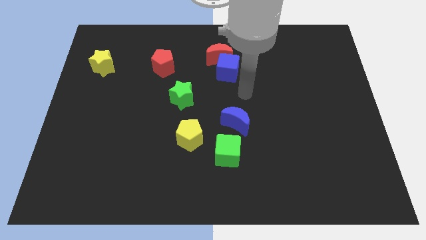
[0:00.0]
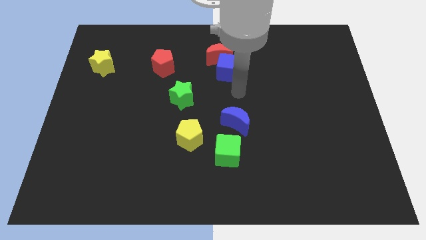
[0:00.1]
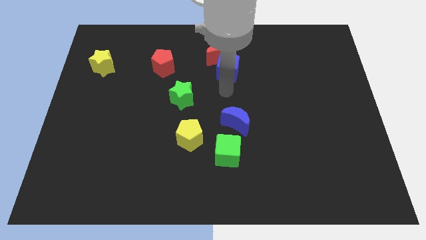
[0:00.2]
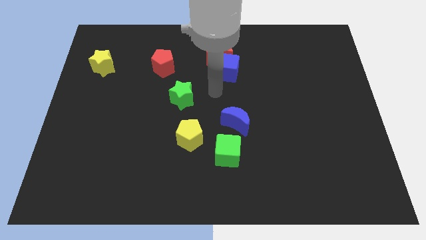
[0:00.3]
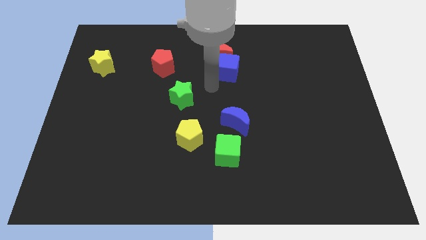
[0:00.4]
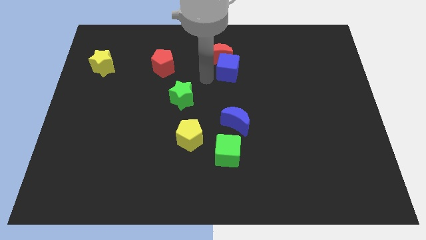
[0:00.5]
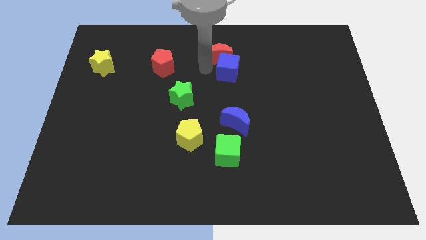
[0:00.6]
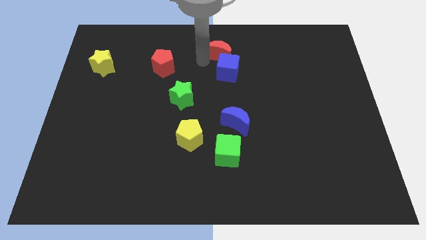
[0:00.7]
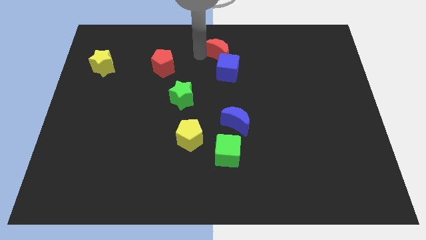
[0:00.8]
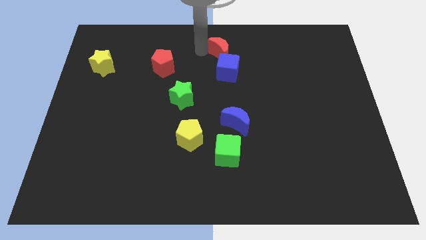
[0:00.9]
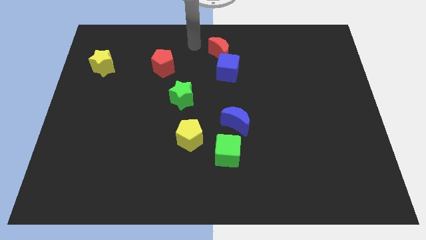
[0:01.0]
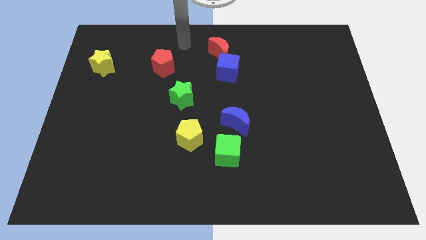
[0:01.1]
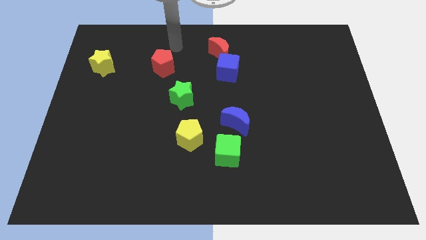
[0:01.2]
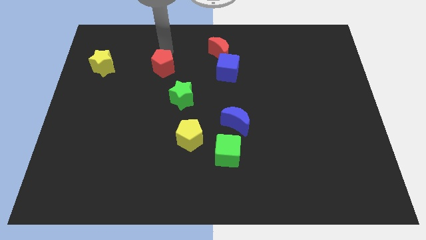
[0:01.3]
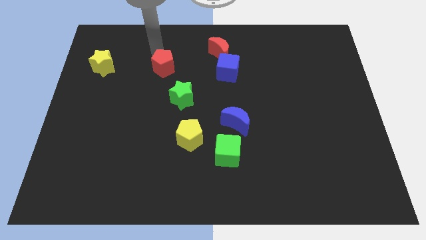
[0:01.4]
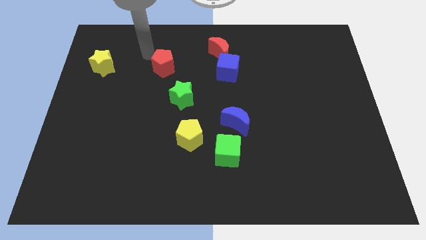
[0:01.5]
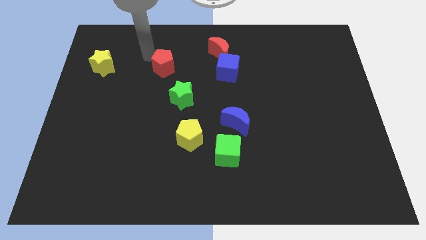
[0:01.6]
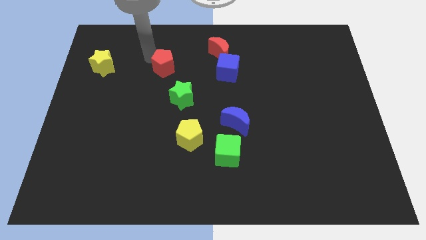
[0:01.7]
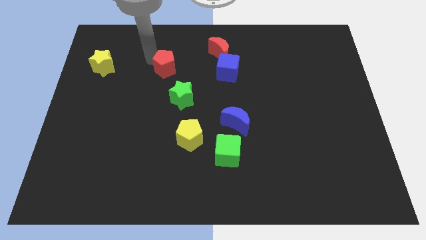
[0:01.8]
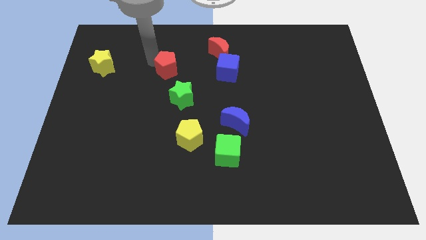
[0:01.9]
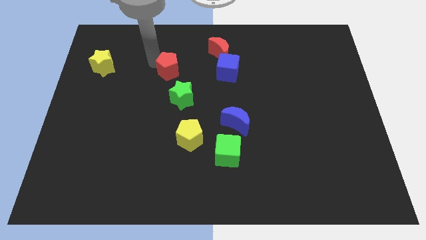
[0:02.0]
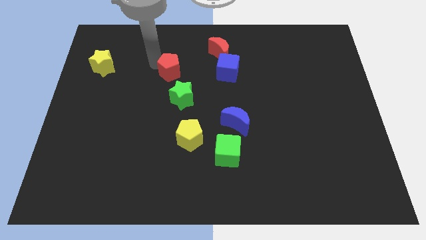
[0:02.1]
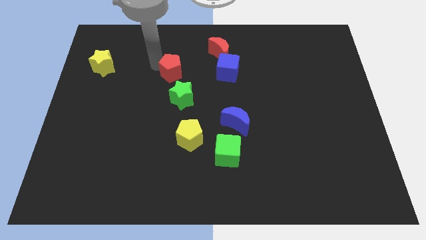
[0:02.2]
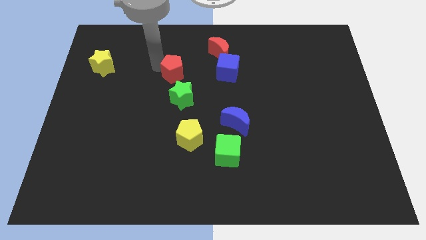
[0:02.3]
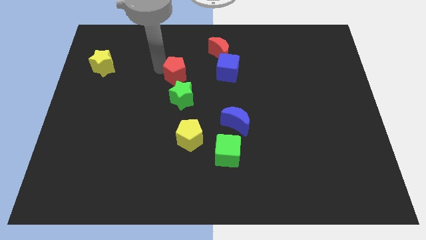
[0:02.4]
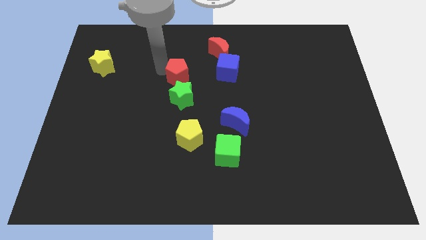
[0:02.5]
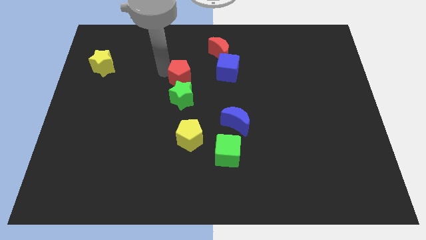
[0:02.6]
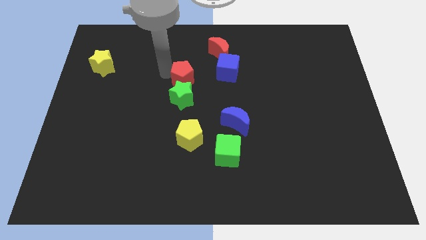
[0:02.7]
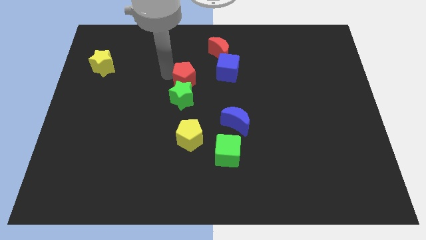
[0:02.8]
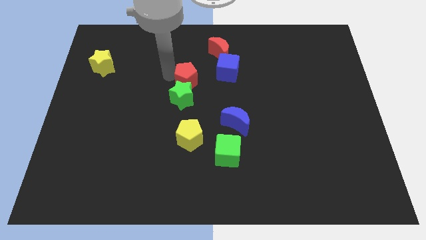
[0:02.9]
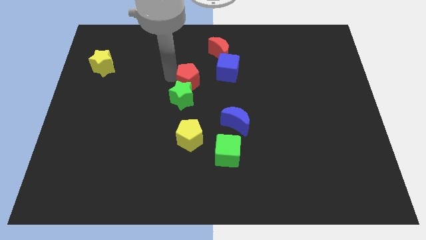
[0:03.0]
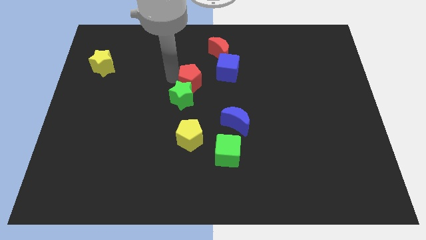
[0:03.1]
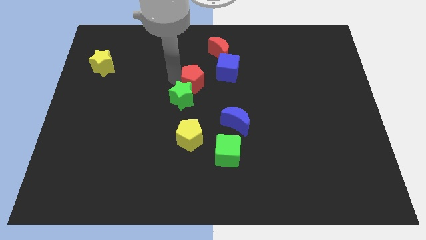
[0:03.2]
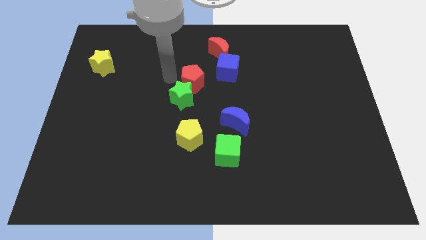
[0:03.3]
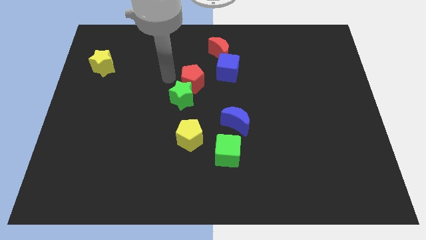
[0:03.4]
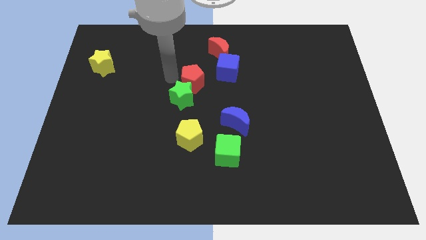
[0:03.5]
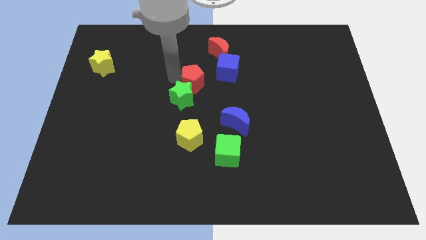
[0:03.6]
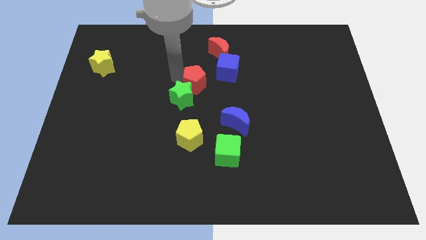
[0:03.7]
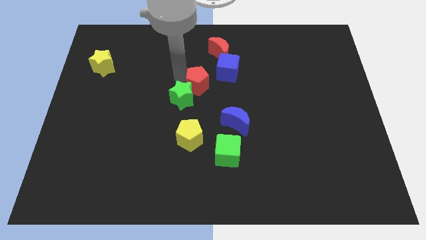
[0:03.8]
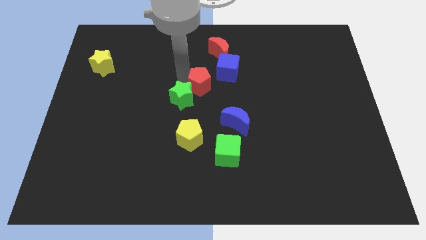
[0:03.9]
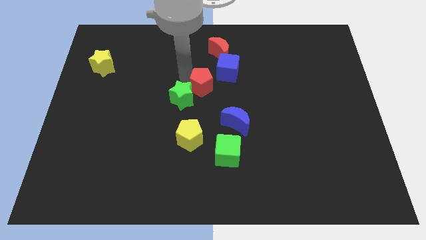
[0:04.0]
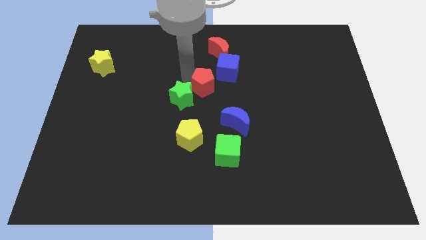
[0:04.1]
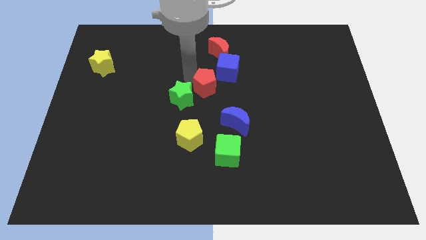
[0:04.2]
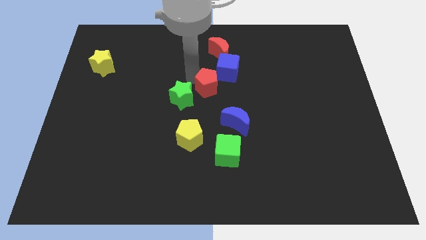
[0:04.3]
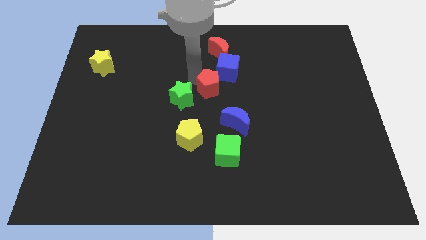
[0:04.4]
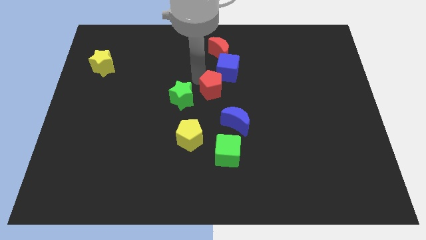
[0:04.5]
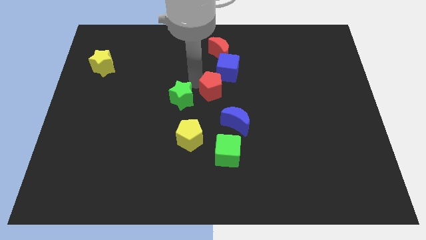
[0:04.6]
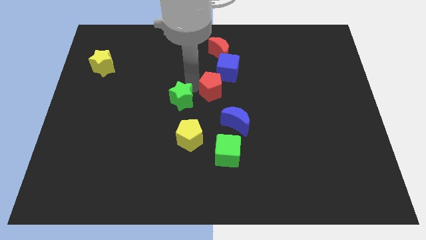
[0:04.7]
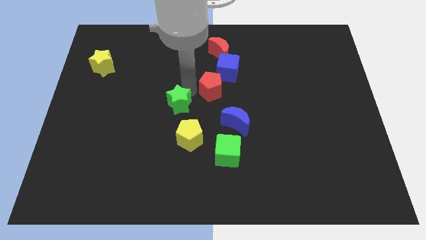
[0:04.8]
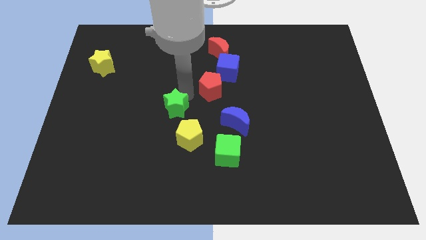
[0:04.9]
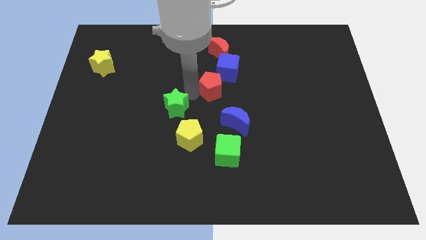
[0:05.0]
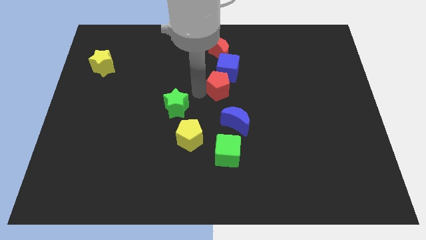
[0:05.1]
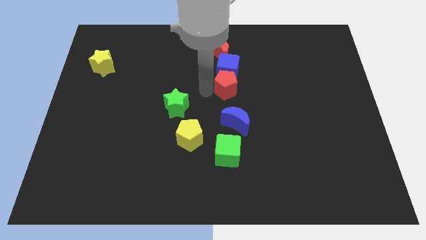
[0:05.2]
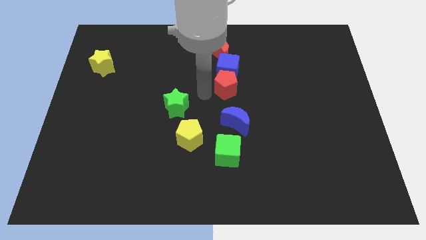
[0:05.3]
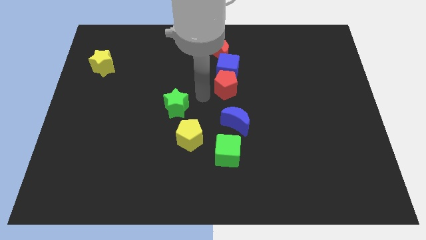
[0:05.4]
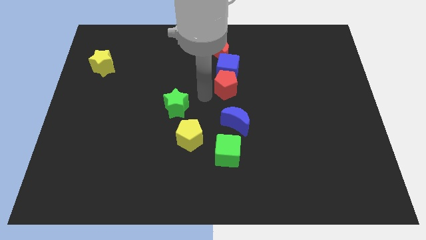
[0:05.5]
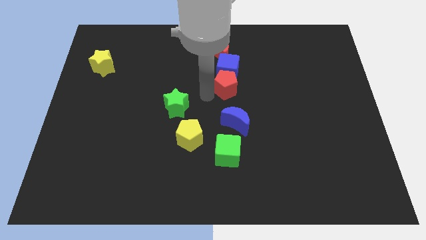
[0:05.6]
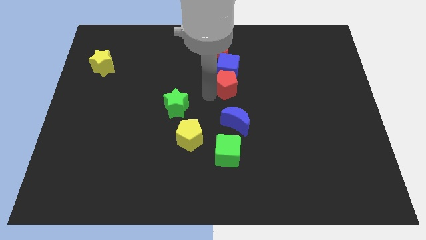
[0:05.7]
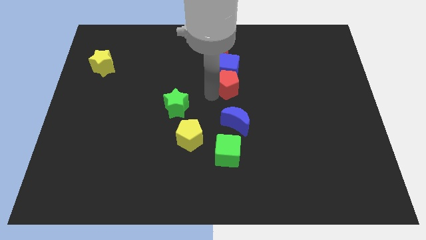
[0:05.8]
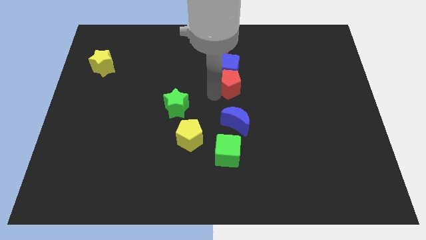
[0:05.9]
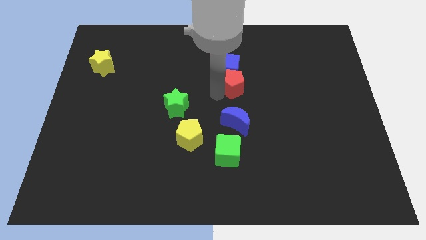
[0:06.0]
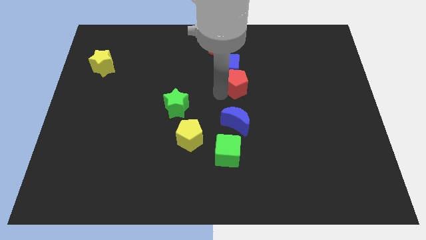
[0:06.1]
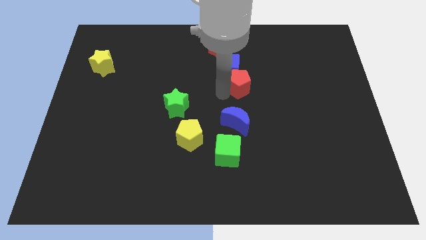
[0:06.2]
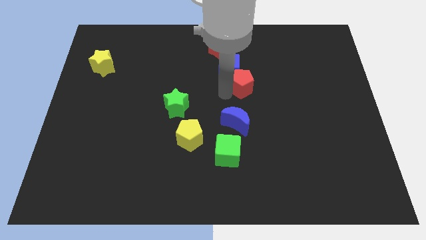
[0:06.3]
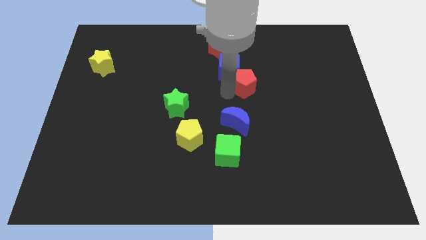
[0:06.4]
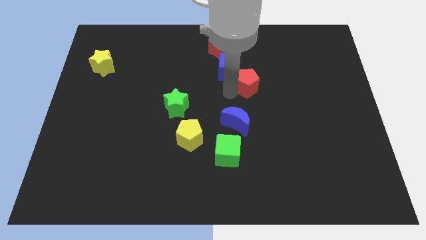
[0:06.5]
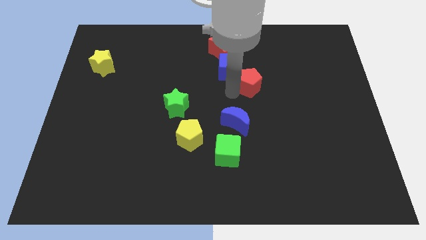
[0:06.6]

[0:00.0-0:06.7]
push the red pentagon right

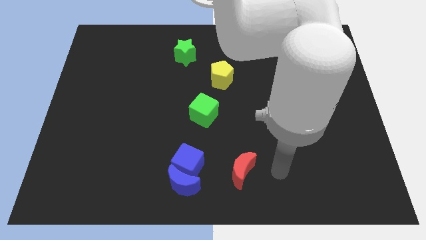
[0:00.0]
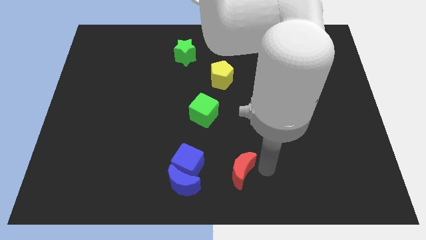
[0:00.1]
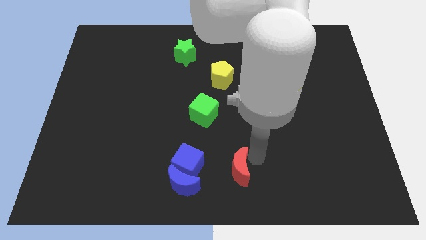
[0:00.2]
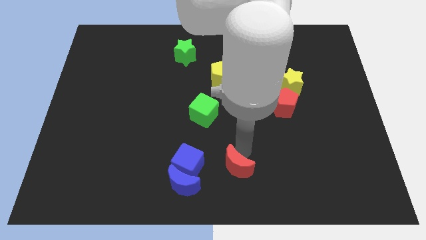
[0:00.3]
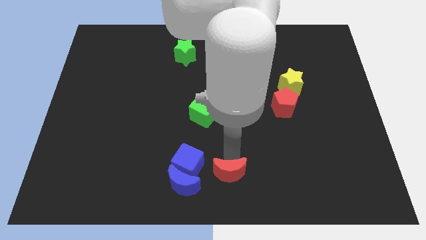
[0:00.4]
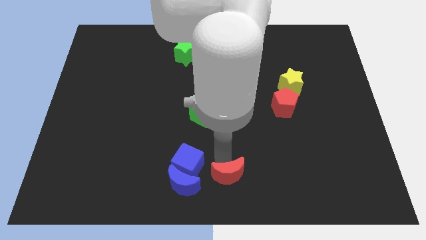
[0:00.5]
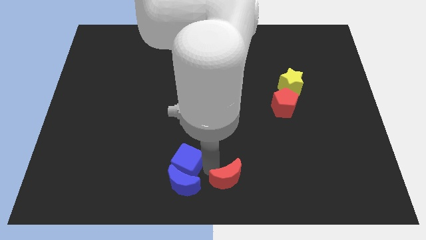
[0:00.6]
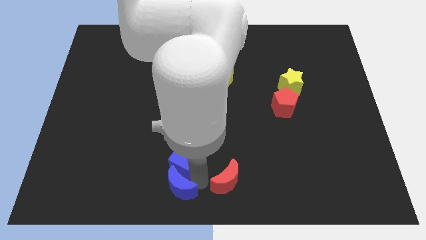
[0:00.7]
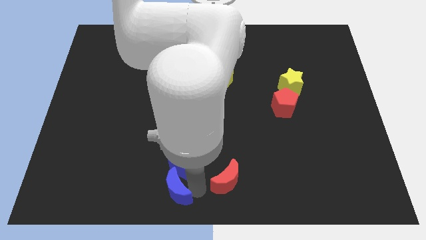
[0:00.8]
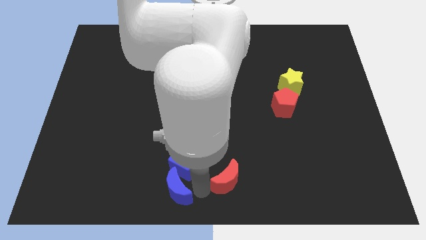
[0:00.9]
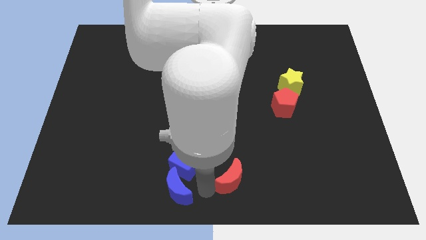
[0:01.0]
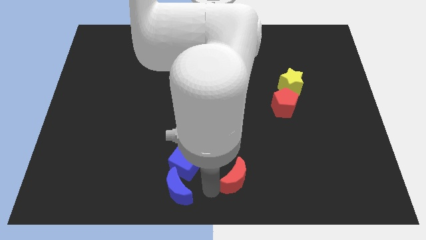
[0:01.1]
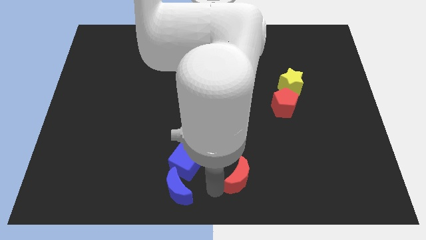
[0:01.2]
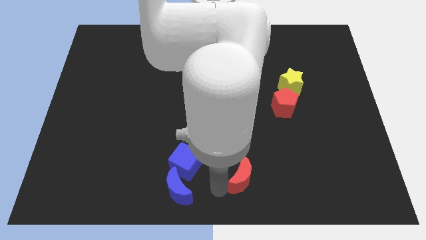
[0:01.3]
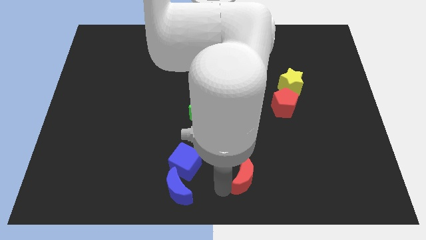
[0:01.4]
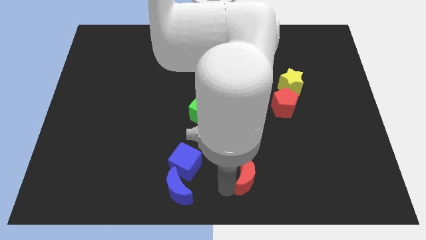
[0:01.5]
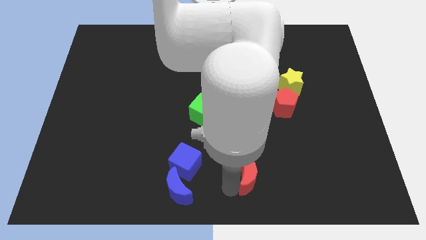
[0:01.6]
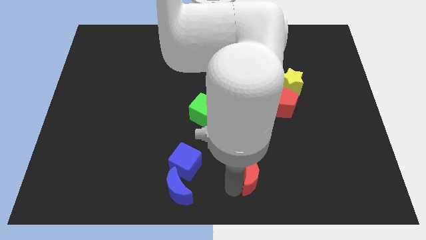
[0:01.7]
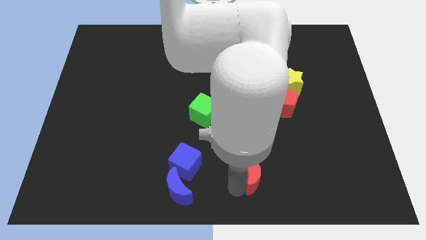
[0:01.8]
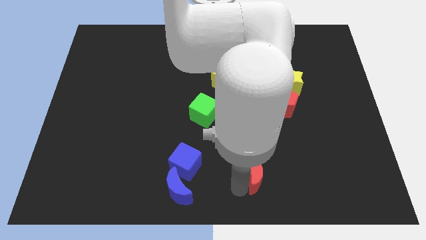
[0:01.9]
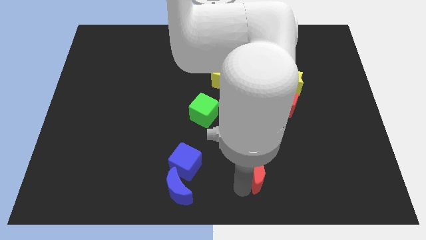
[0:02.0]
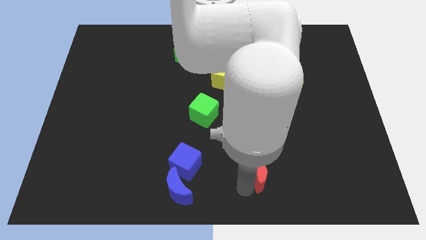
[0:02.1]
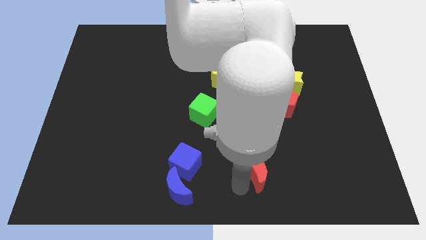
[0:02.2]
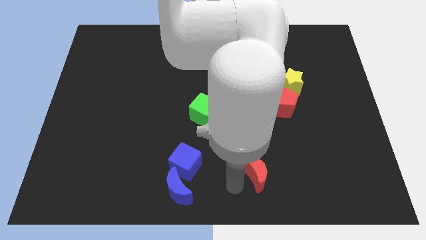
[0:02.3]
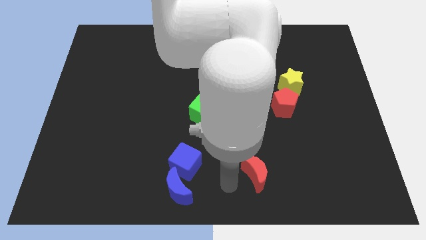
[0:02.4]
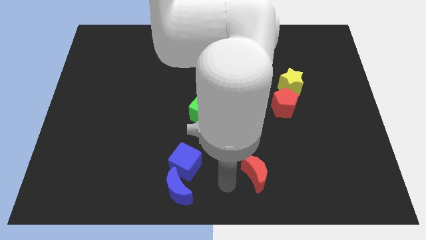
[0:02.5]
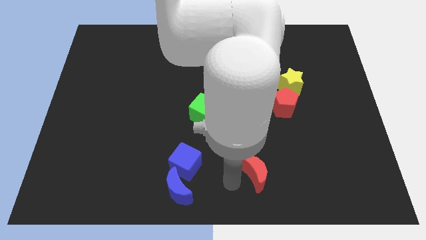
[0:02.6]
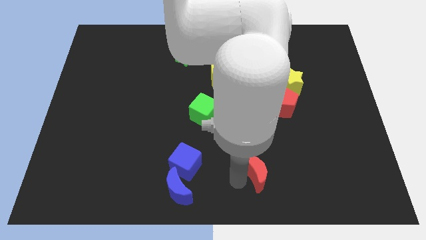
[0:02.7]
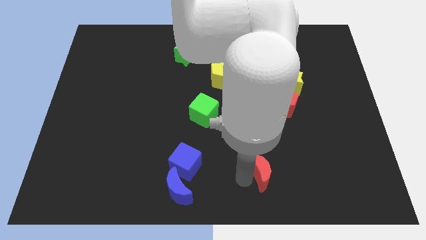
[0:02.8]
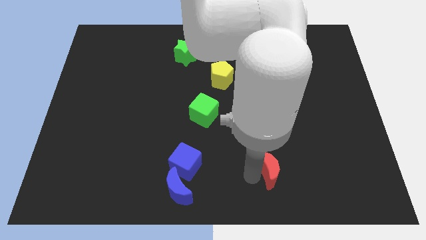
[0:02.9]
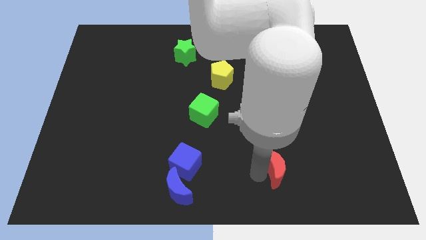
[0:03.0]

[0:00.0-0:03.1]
slightly move the red moon right
